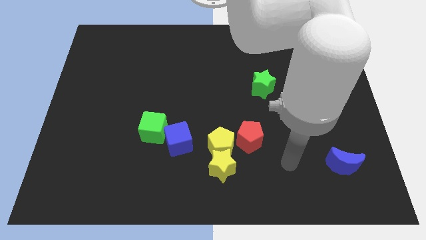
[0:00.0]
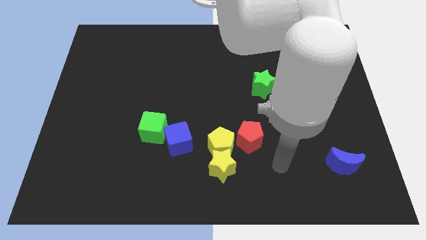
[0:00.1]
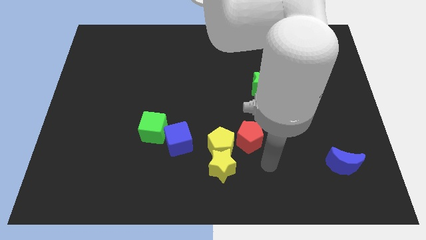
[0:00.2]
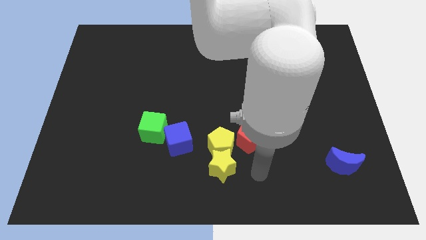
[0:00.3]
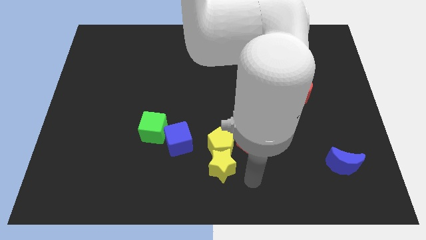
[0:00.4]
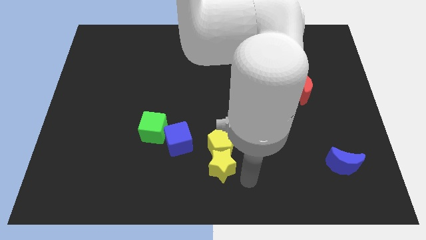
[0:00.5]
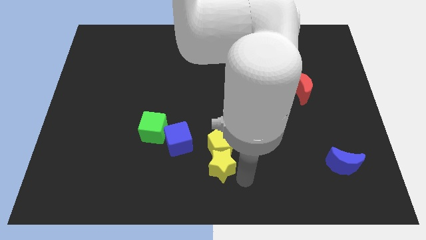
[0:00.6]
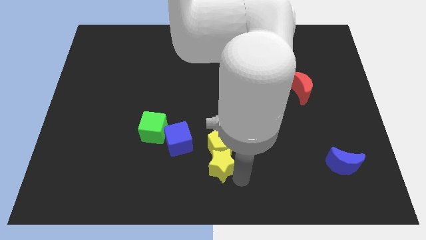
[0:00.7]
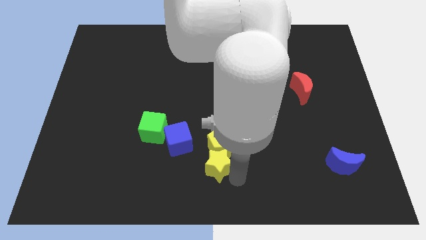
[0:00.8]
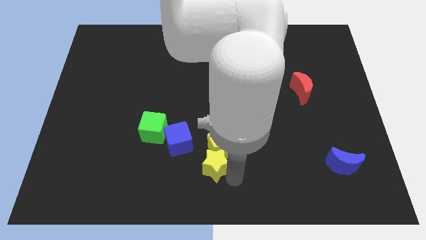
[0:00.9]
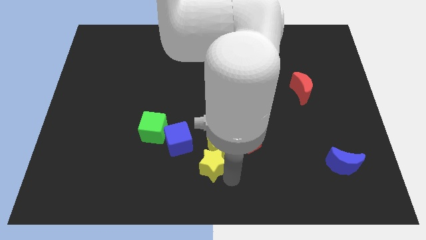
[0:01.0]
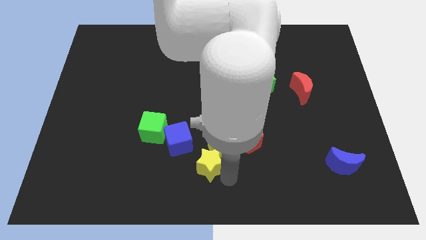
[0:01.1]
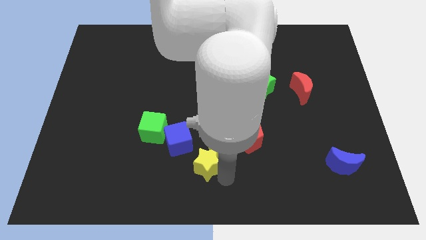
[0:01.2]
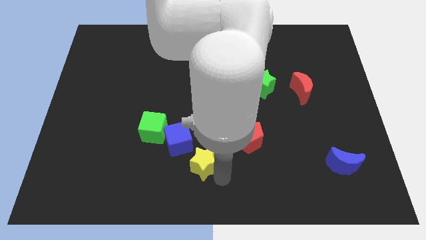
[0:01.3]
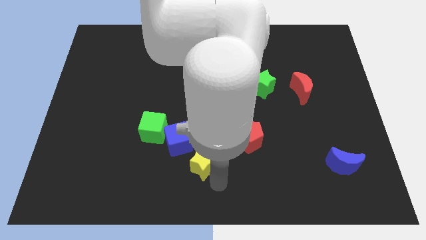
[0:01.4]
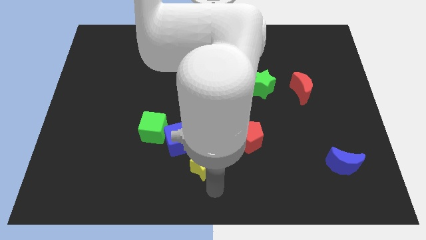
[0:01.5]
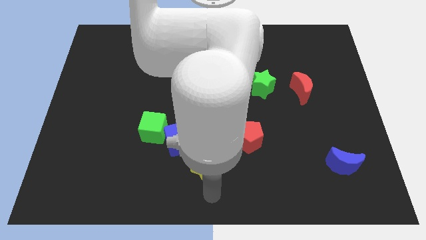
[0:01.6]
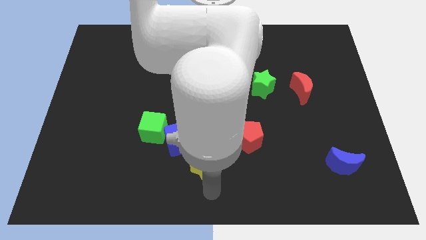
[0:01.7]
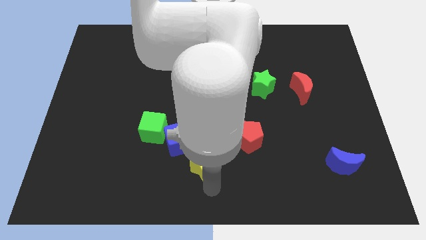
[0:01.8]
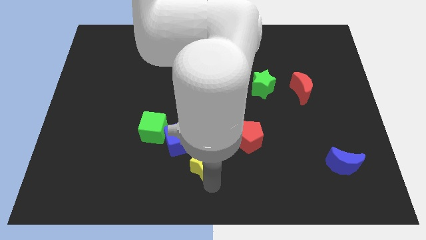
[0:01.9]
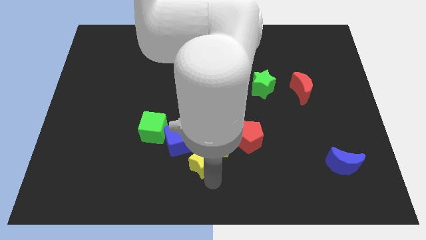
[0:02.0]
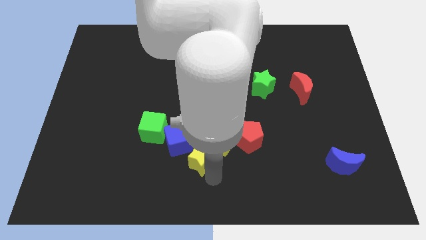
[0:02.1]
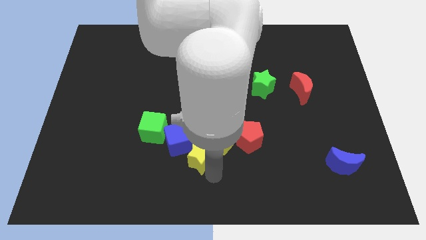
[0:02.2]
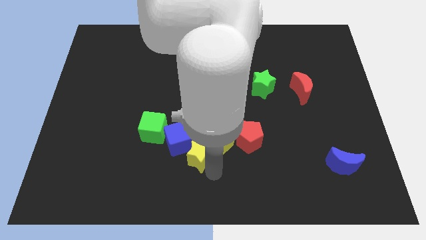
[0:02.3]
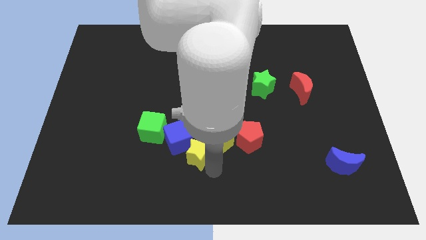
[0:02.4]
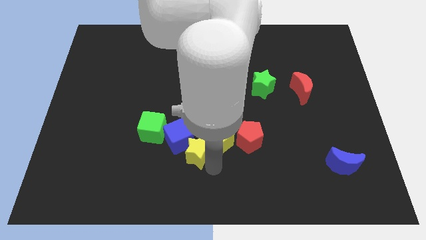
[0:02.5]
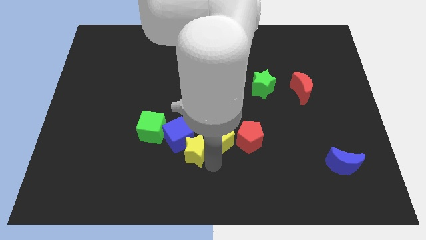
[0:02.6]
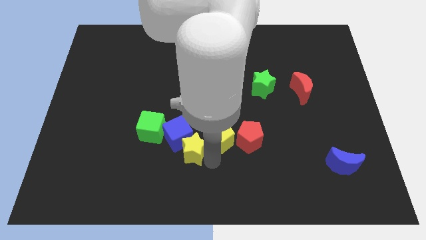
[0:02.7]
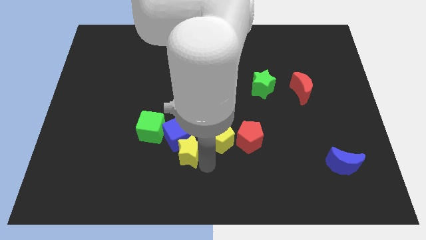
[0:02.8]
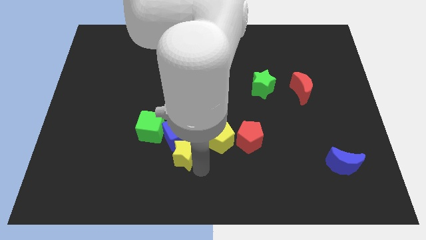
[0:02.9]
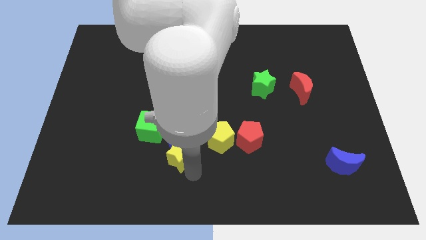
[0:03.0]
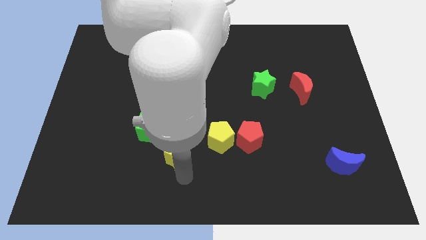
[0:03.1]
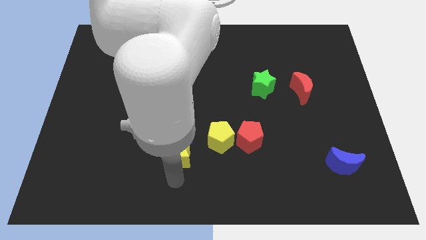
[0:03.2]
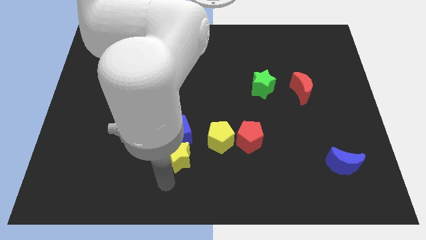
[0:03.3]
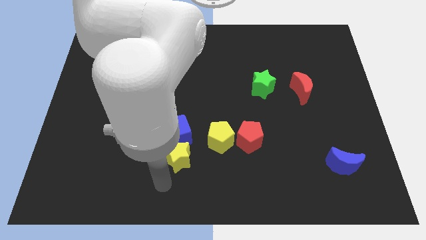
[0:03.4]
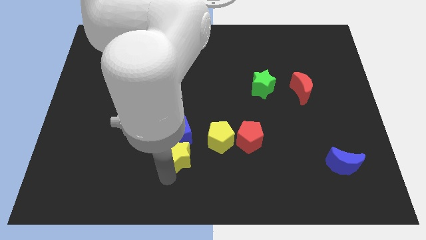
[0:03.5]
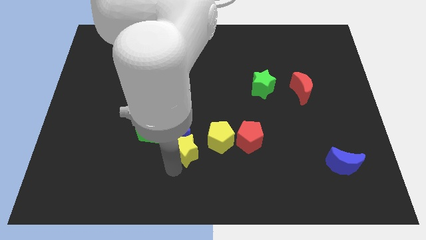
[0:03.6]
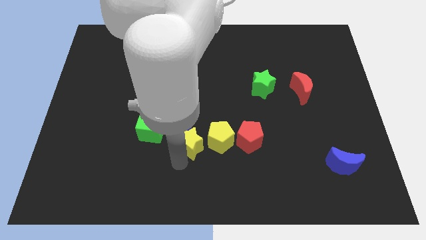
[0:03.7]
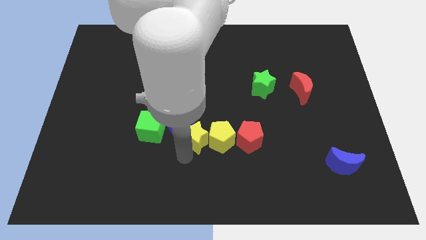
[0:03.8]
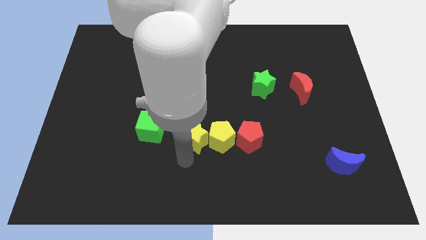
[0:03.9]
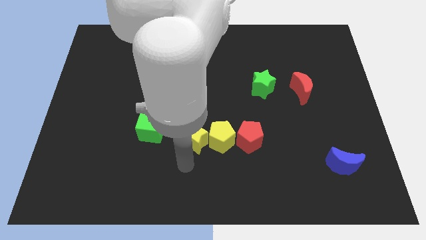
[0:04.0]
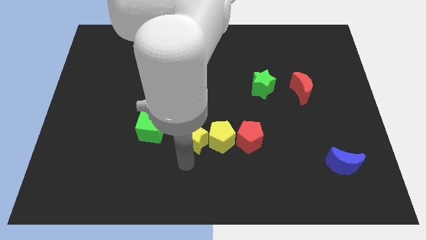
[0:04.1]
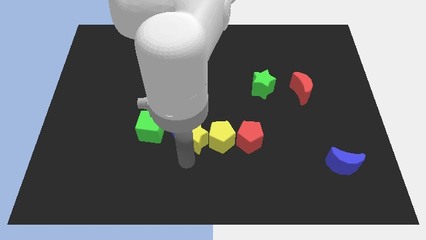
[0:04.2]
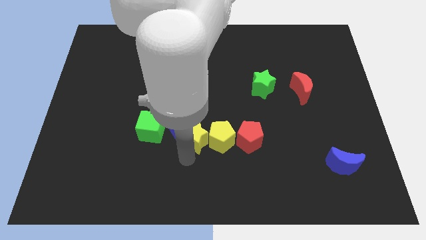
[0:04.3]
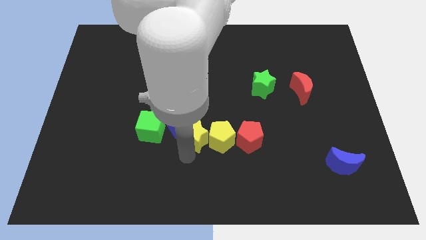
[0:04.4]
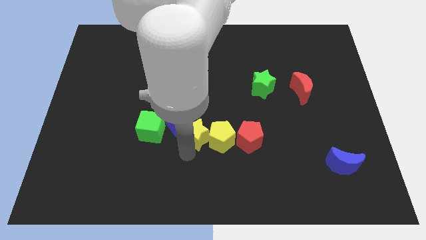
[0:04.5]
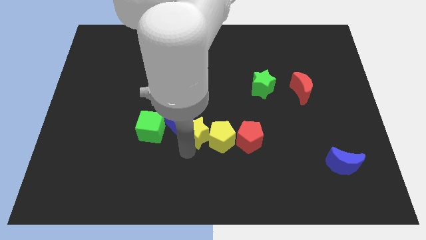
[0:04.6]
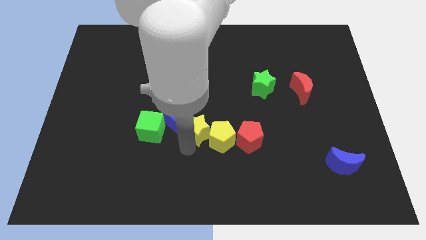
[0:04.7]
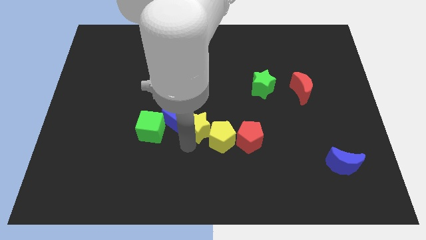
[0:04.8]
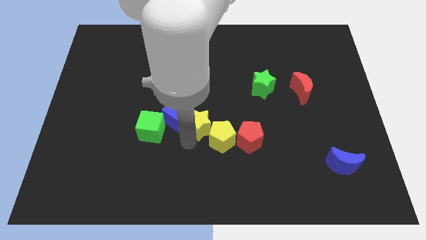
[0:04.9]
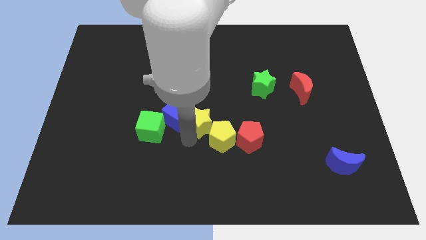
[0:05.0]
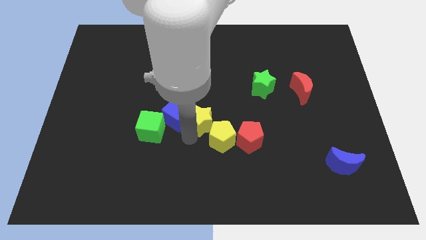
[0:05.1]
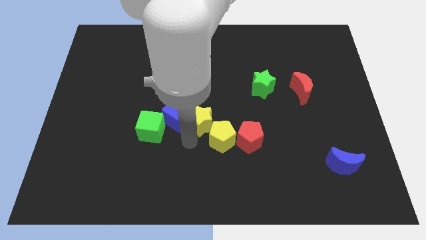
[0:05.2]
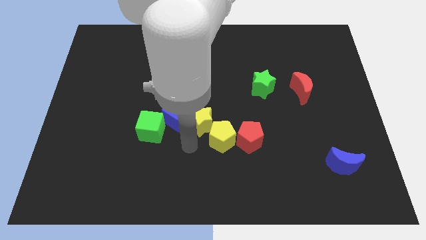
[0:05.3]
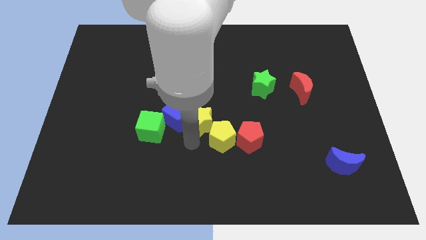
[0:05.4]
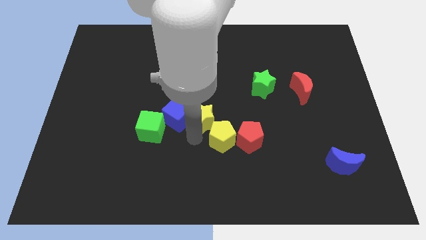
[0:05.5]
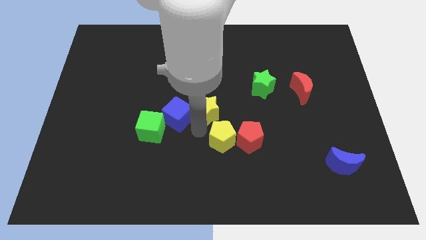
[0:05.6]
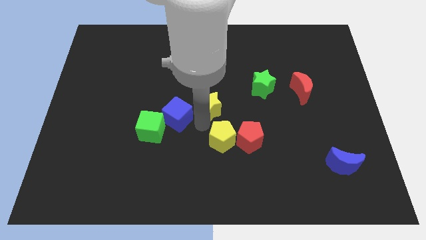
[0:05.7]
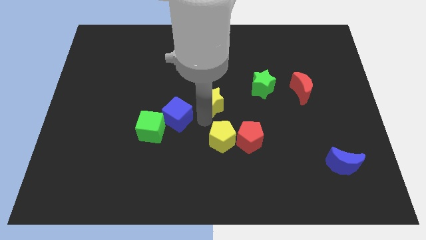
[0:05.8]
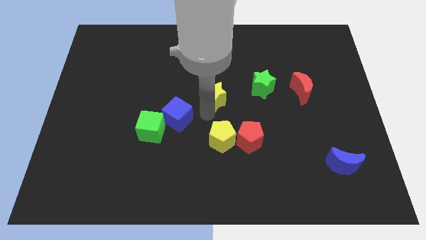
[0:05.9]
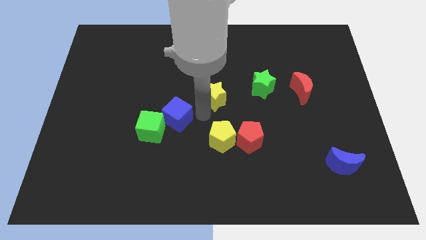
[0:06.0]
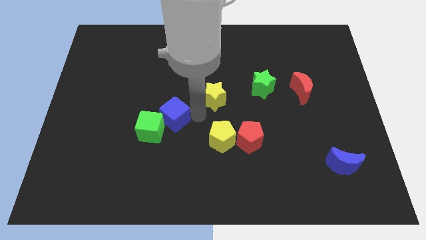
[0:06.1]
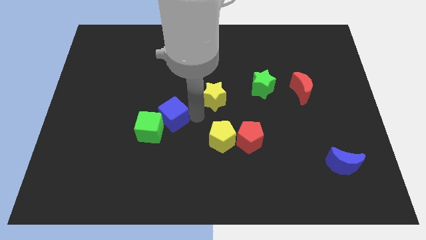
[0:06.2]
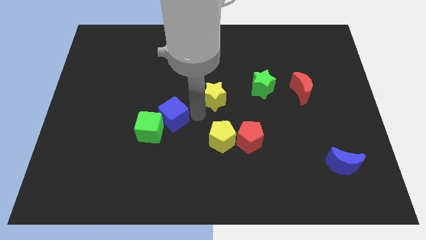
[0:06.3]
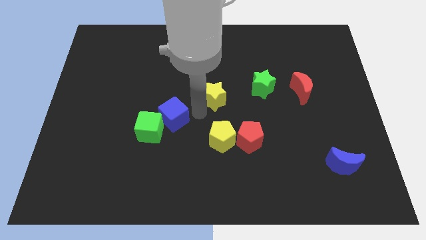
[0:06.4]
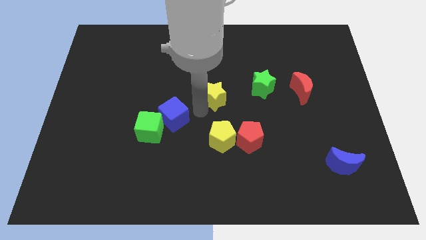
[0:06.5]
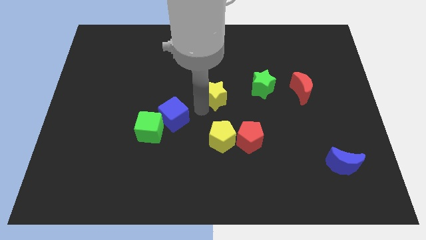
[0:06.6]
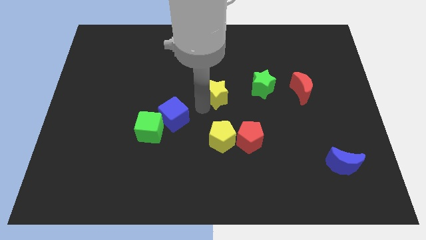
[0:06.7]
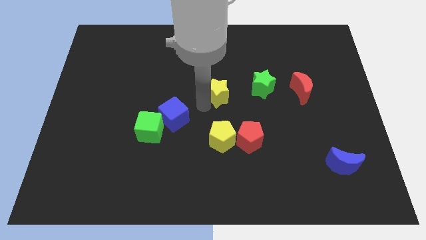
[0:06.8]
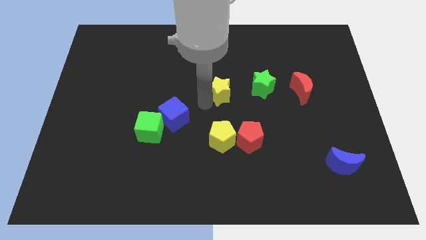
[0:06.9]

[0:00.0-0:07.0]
move the yellow star up

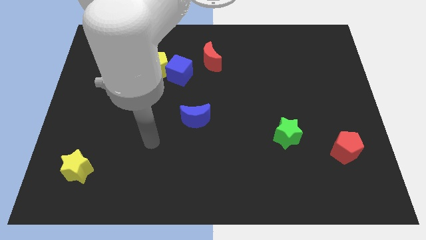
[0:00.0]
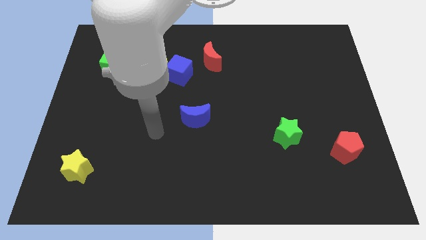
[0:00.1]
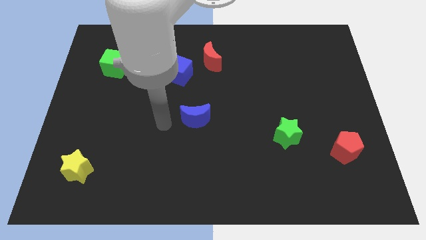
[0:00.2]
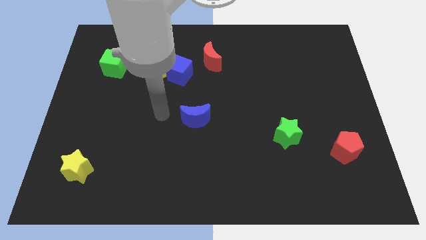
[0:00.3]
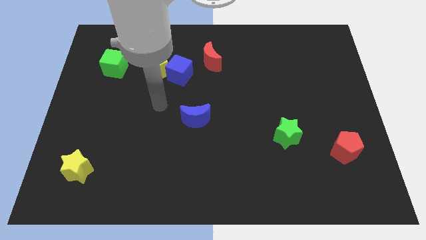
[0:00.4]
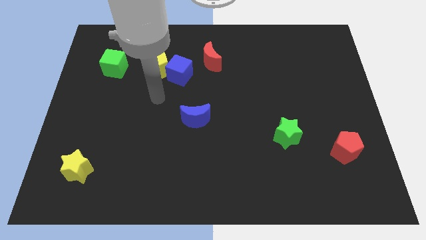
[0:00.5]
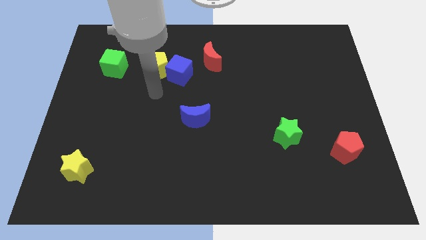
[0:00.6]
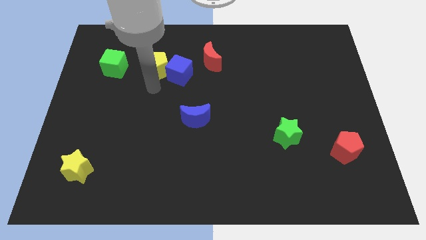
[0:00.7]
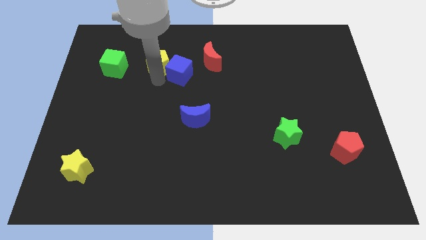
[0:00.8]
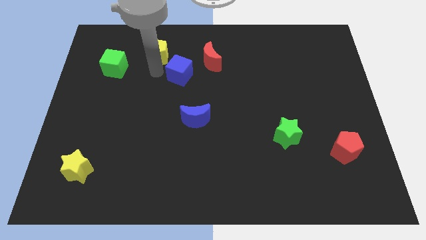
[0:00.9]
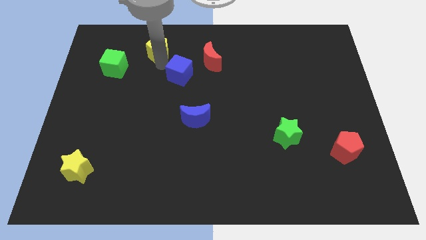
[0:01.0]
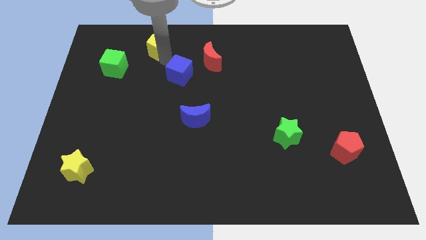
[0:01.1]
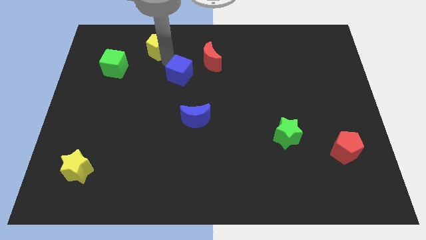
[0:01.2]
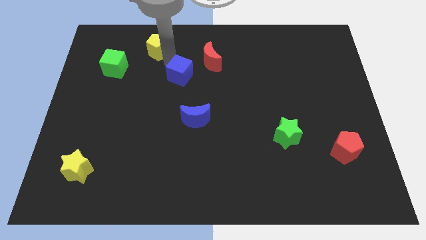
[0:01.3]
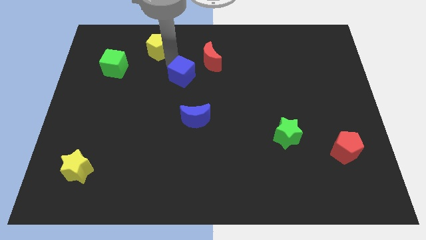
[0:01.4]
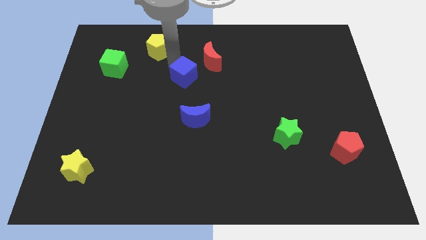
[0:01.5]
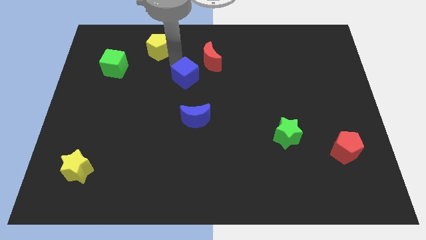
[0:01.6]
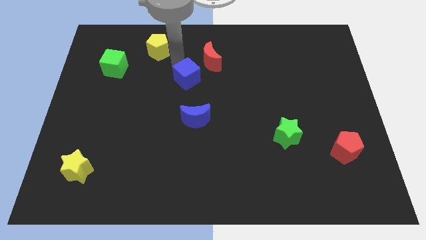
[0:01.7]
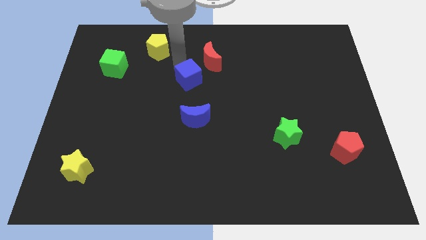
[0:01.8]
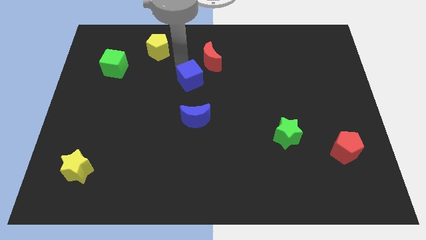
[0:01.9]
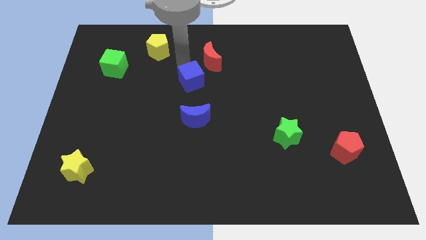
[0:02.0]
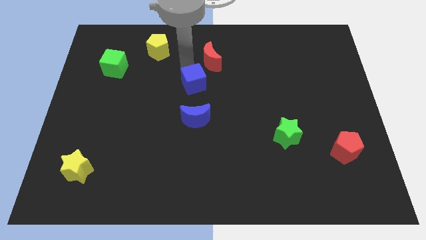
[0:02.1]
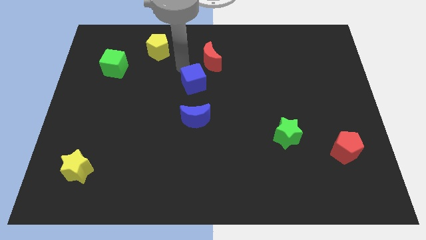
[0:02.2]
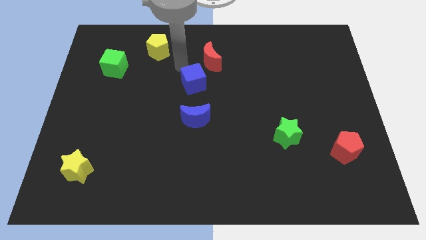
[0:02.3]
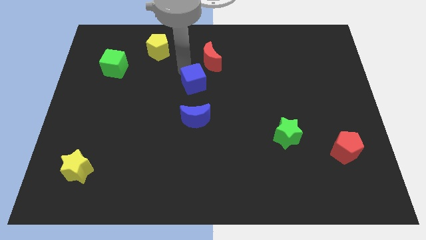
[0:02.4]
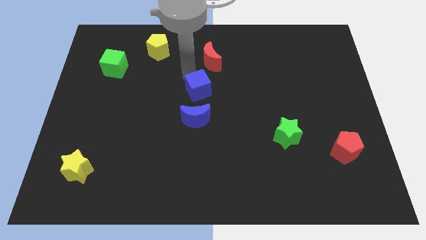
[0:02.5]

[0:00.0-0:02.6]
slightly move the blue cube downwards and right
